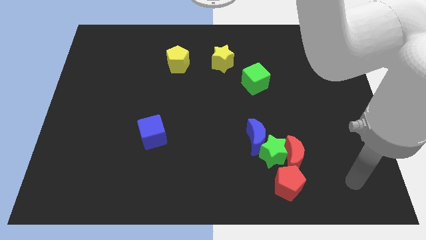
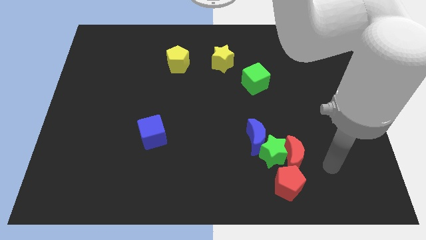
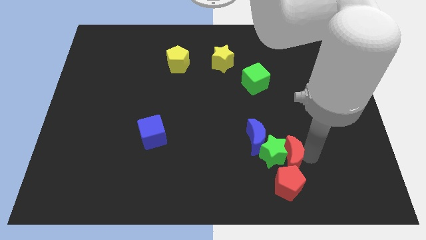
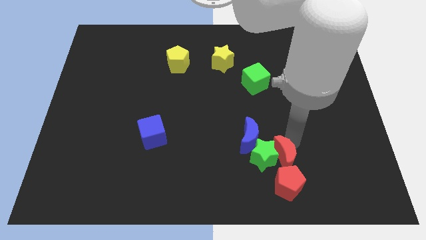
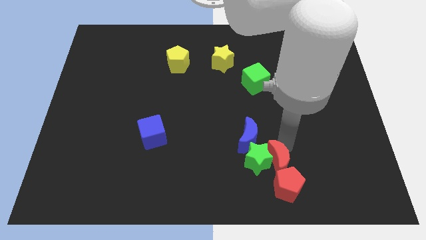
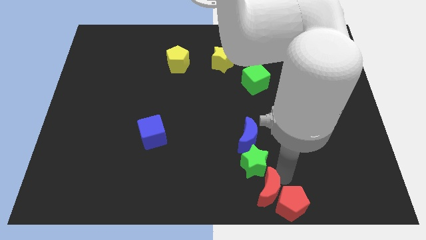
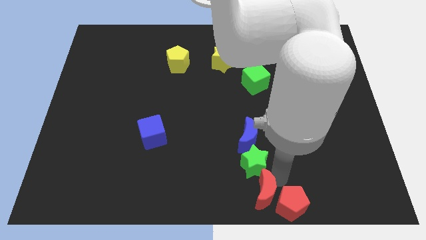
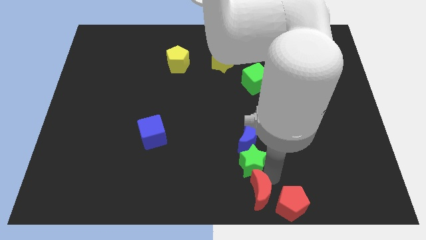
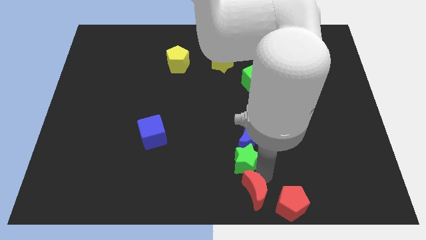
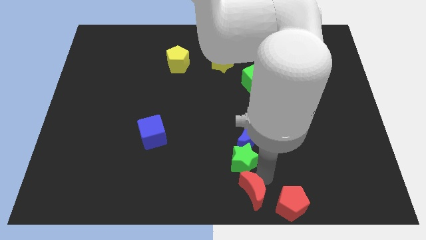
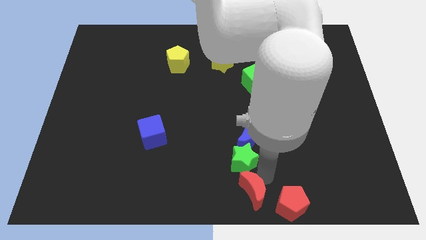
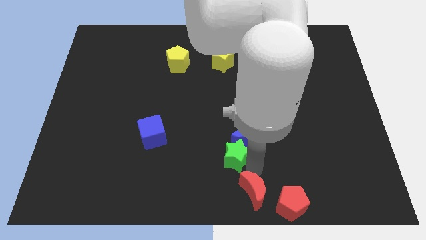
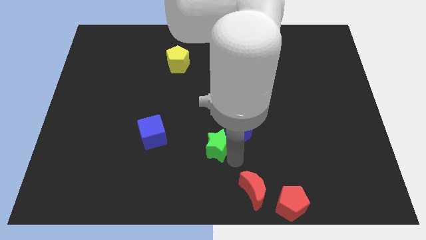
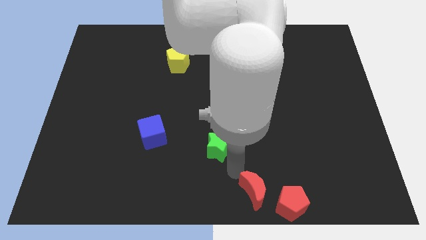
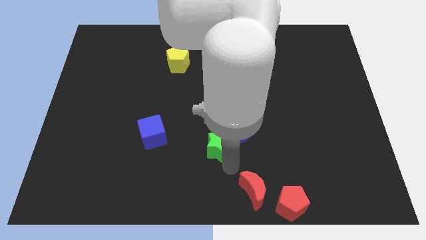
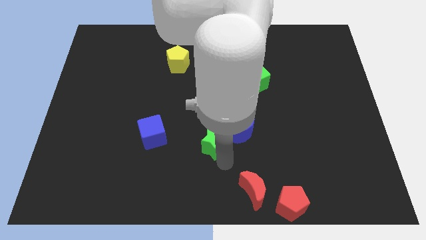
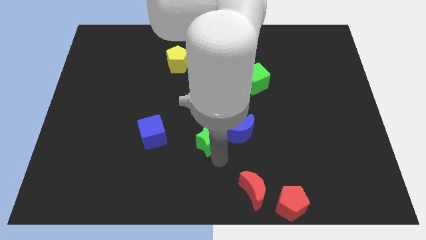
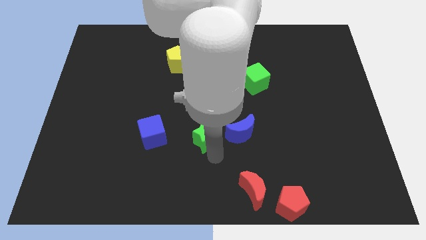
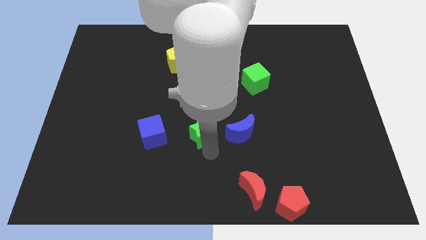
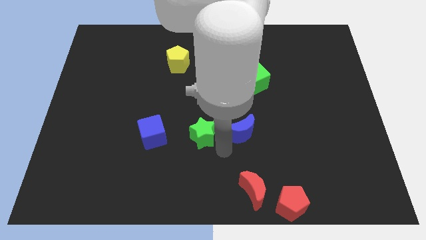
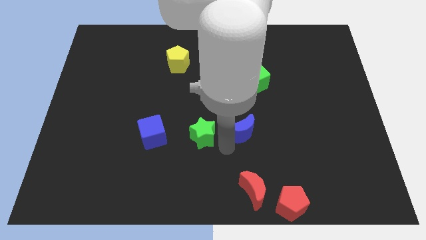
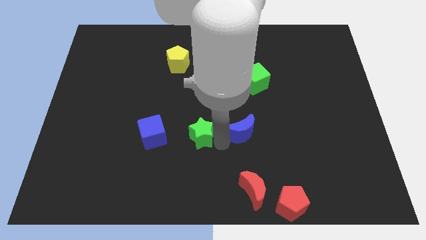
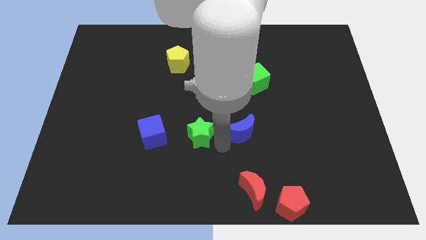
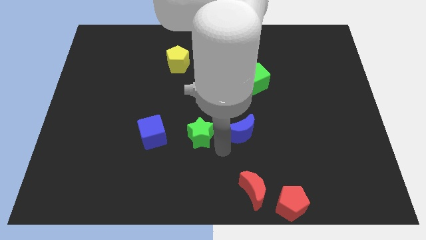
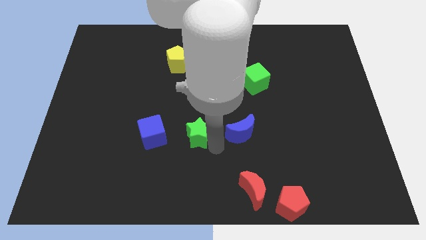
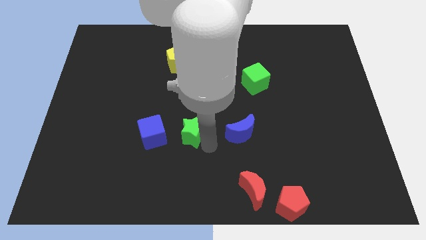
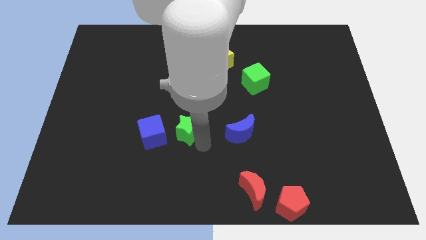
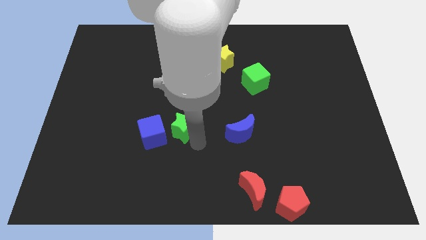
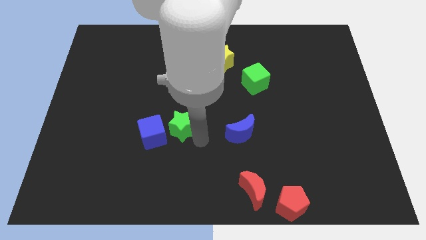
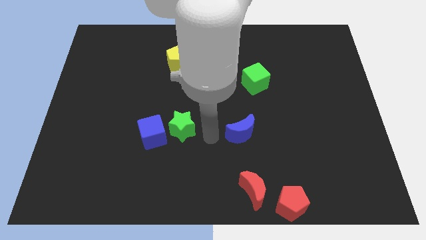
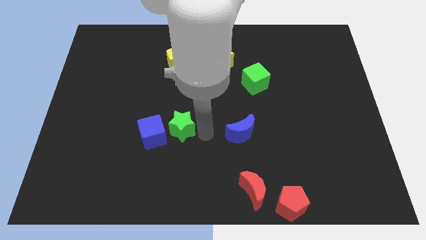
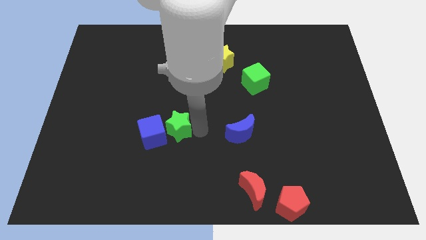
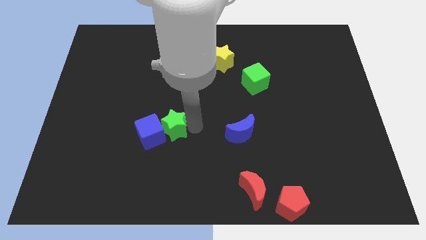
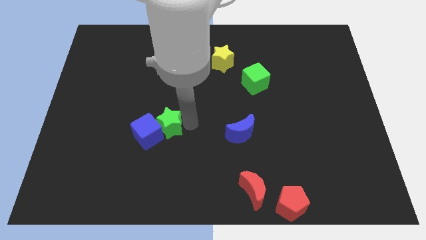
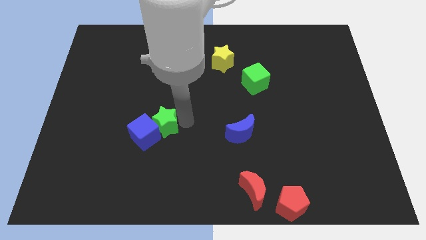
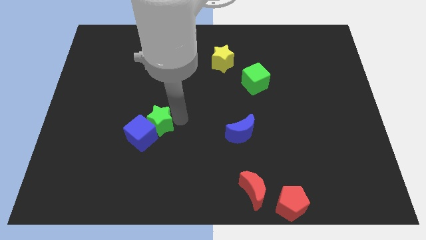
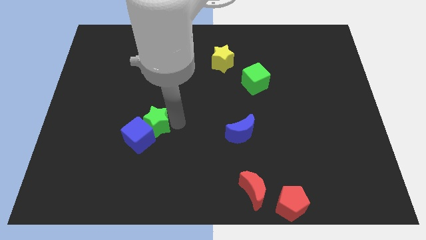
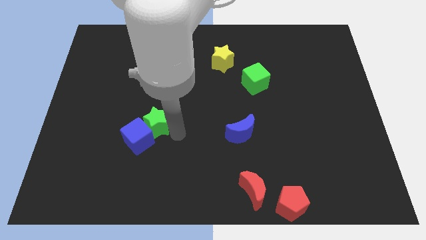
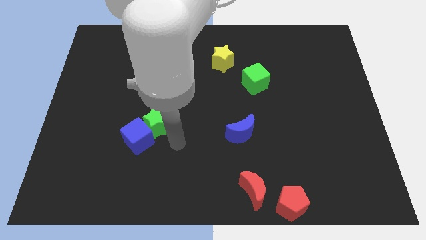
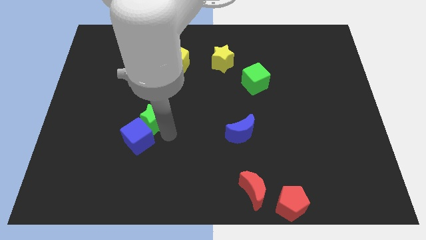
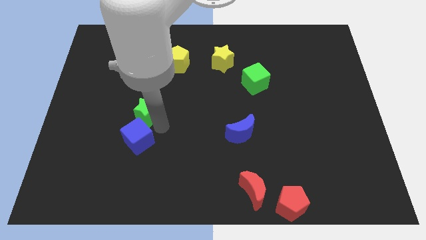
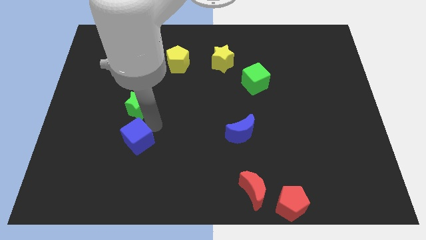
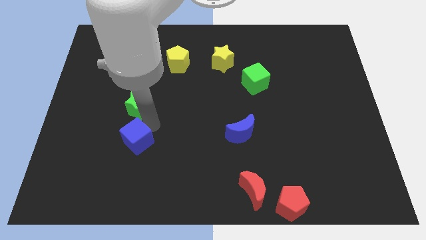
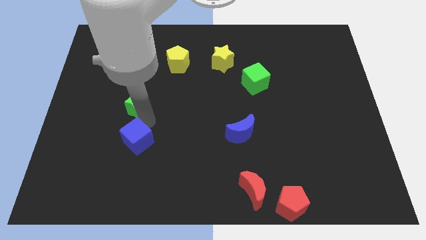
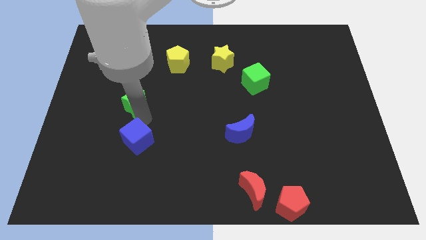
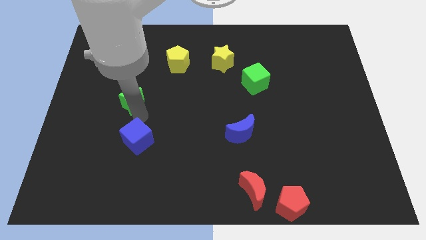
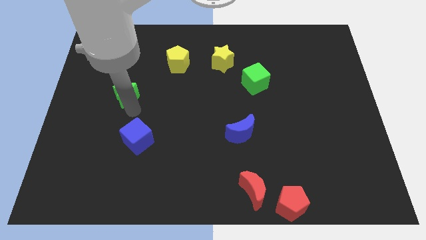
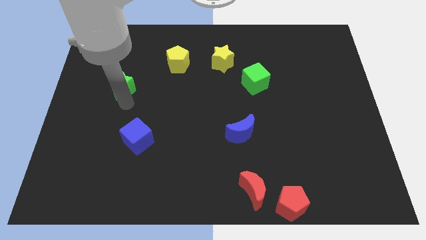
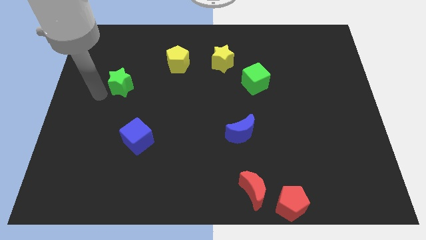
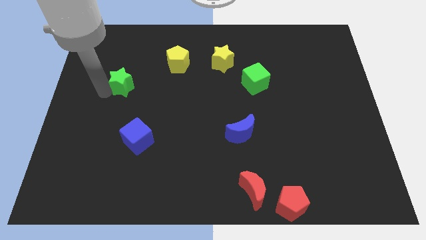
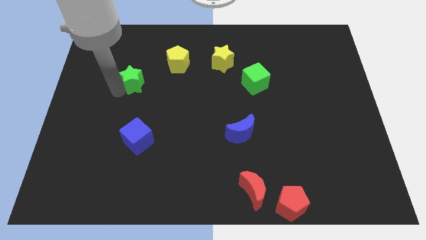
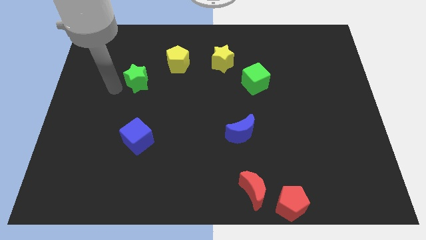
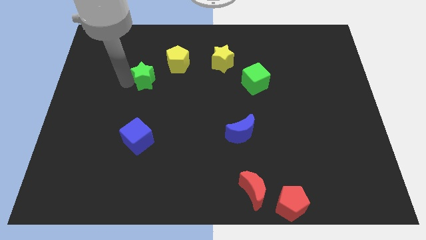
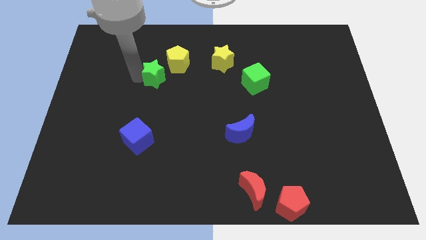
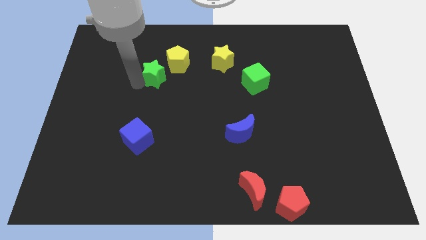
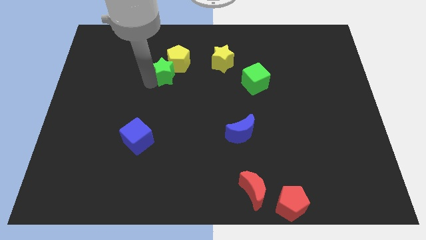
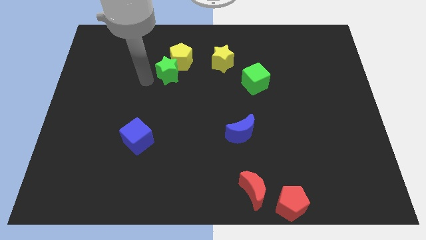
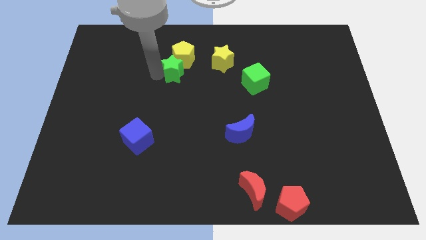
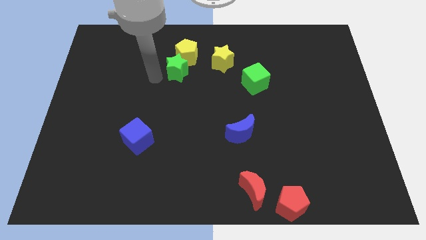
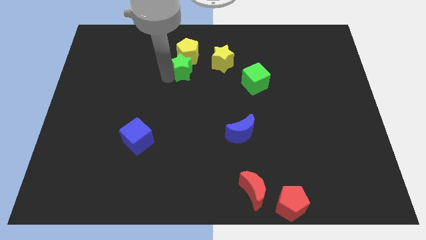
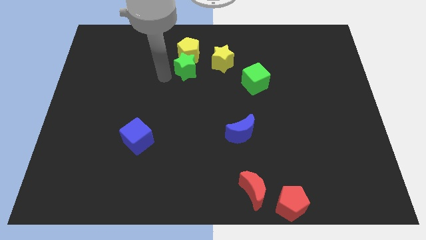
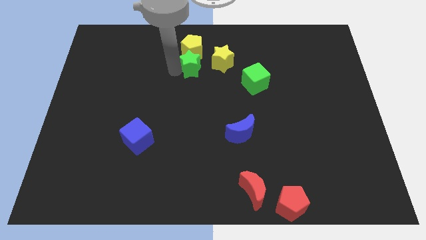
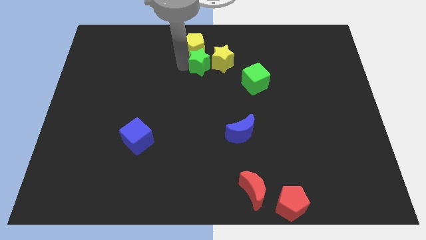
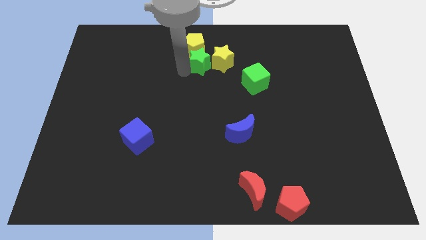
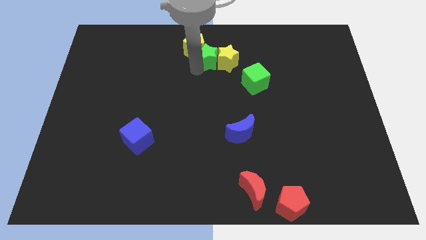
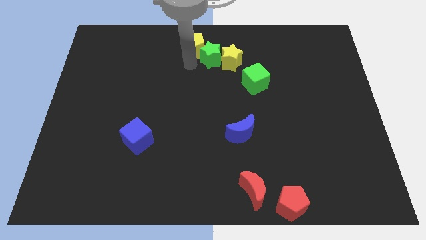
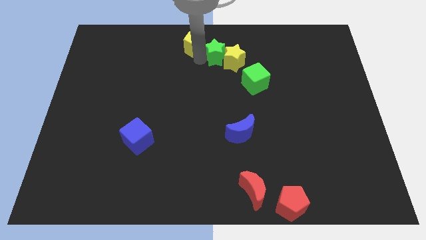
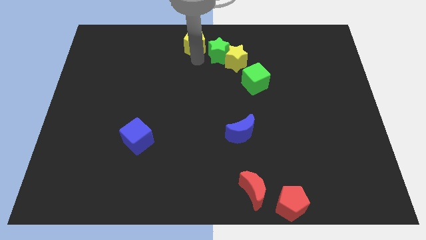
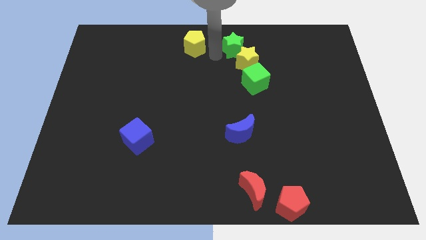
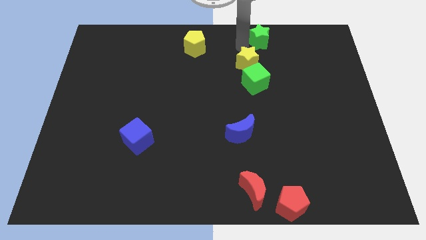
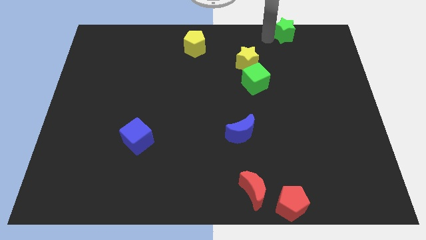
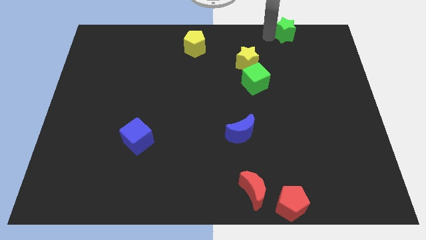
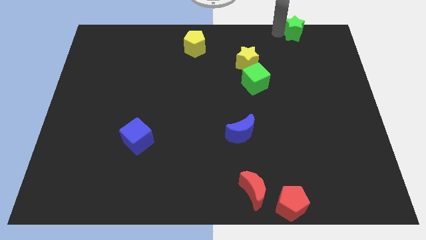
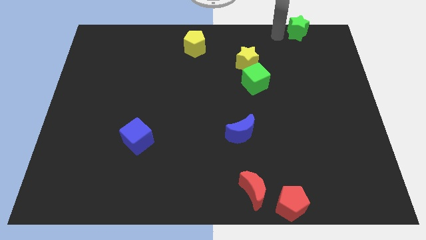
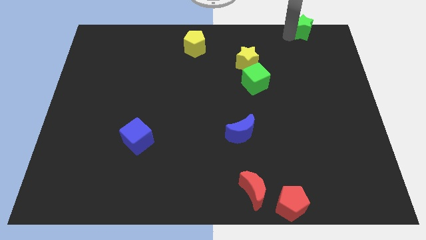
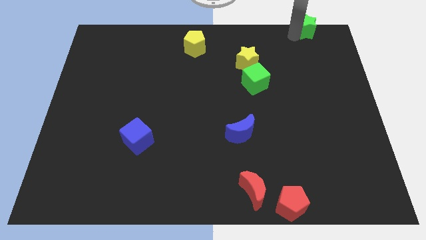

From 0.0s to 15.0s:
put the green star to the upper right corner
